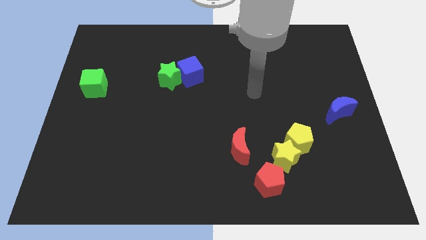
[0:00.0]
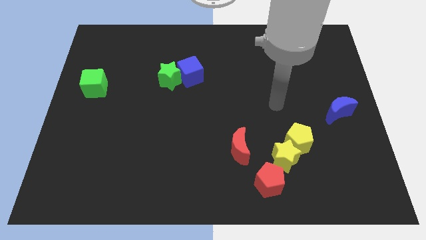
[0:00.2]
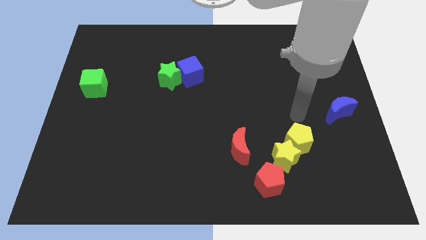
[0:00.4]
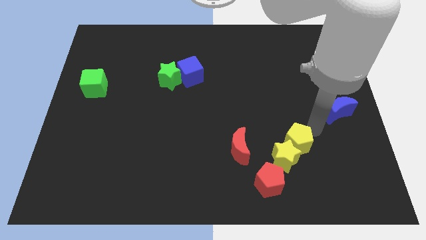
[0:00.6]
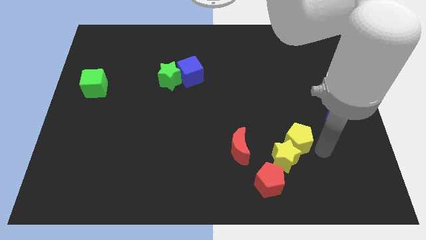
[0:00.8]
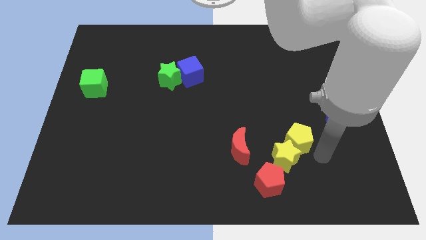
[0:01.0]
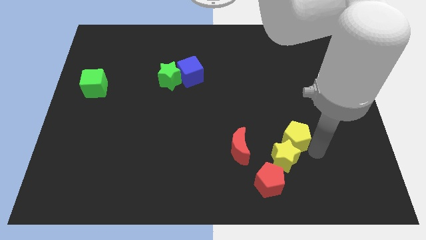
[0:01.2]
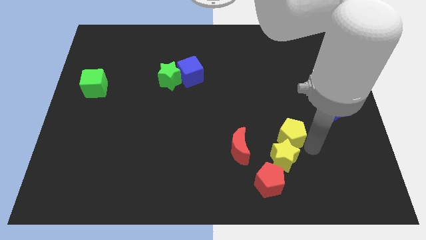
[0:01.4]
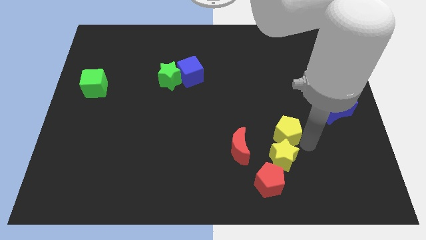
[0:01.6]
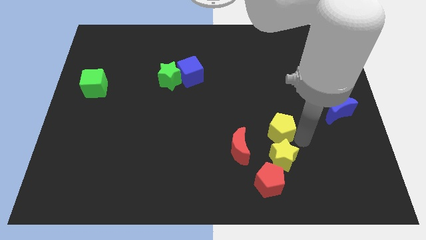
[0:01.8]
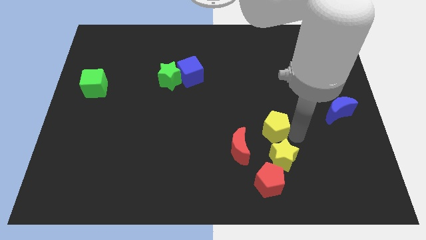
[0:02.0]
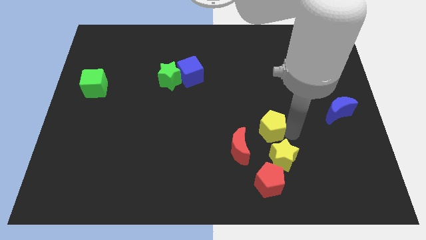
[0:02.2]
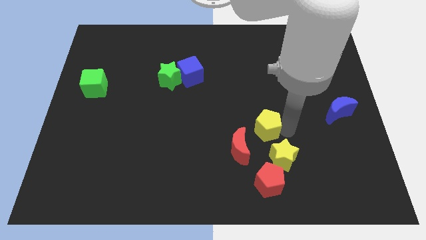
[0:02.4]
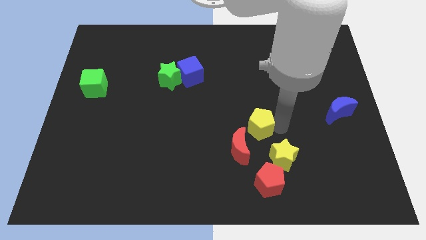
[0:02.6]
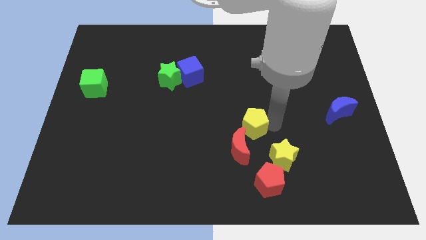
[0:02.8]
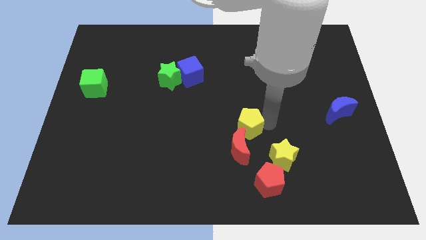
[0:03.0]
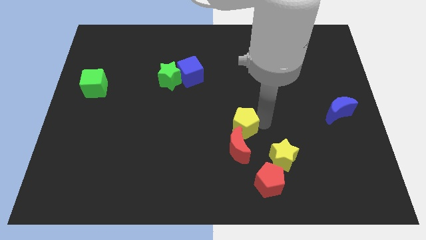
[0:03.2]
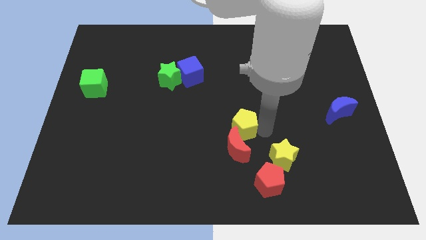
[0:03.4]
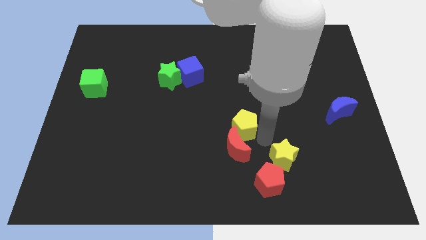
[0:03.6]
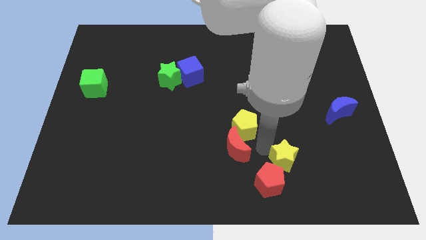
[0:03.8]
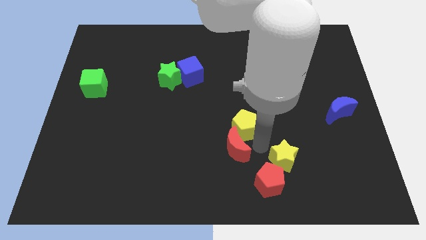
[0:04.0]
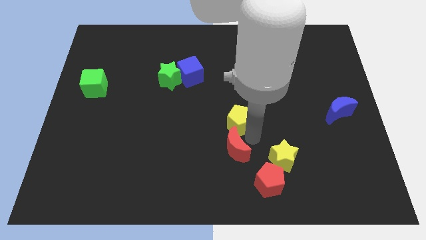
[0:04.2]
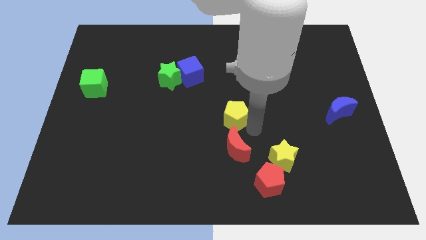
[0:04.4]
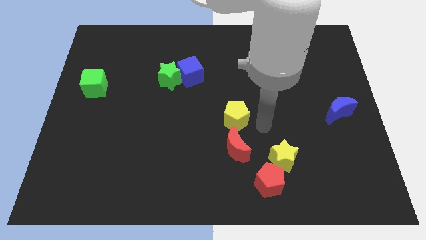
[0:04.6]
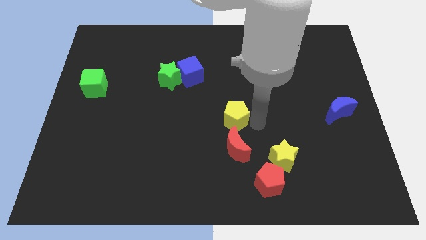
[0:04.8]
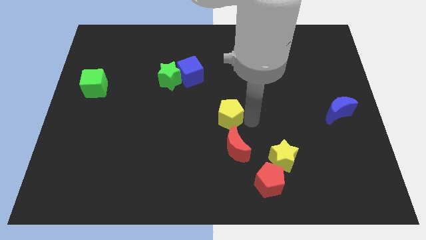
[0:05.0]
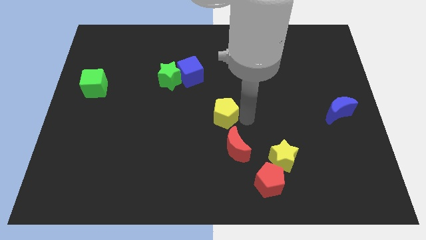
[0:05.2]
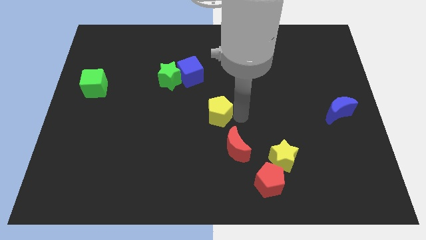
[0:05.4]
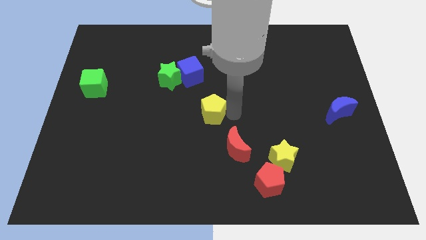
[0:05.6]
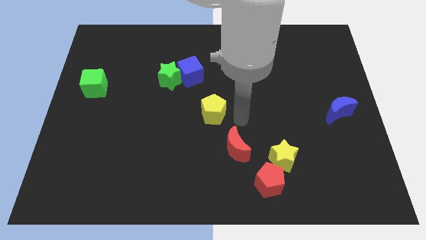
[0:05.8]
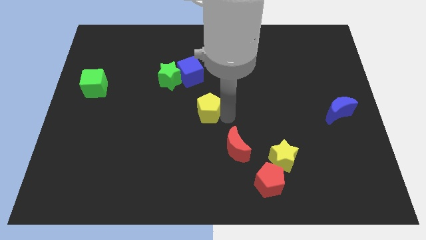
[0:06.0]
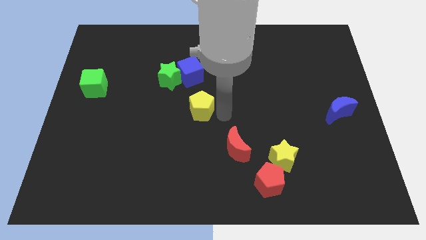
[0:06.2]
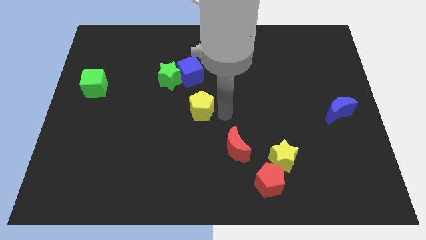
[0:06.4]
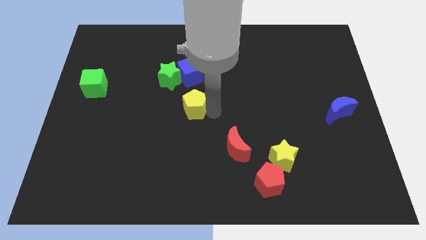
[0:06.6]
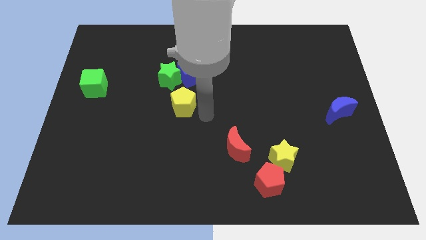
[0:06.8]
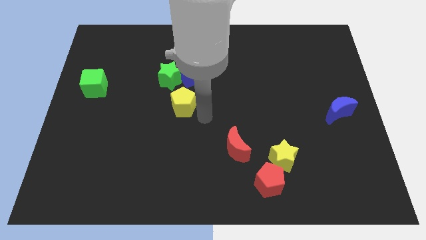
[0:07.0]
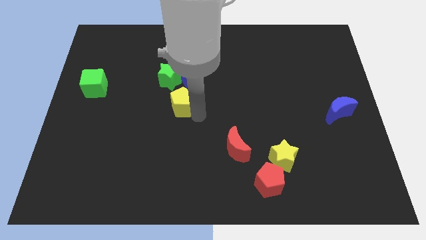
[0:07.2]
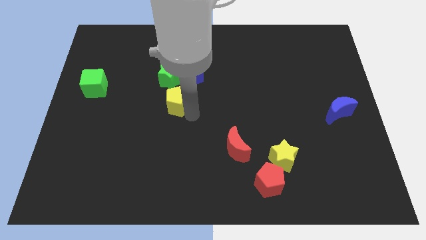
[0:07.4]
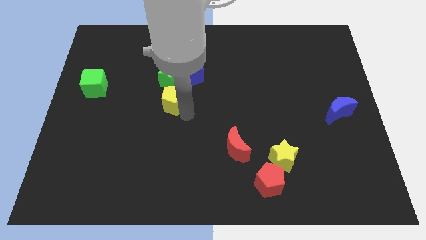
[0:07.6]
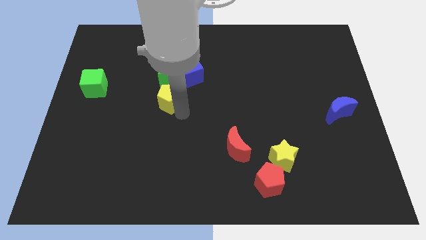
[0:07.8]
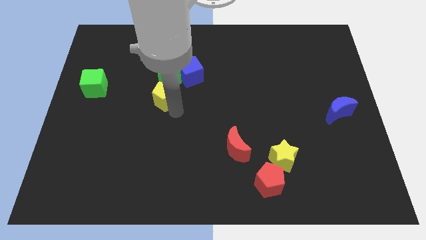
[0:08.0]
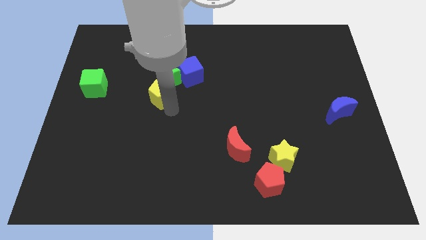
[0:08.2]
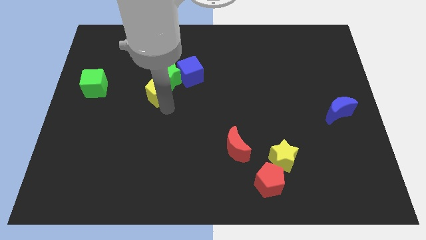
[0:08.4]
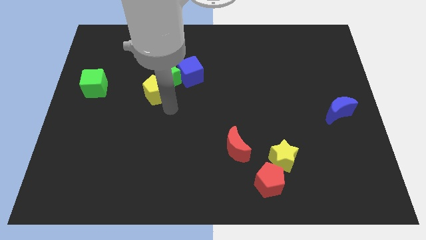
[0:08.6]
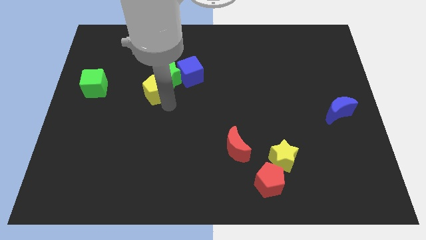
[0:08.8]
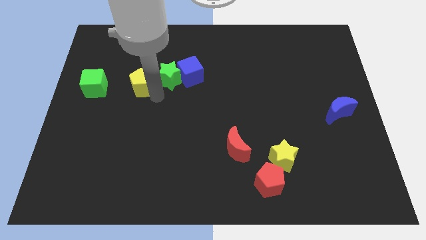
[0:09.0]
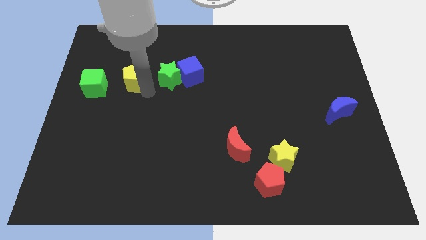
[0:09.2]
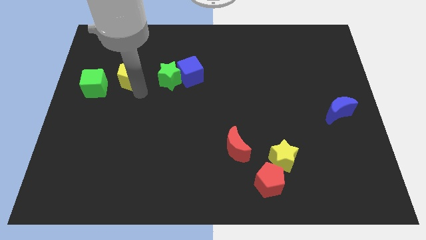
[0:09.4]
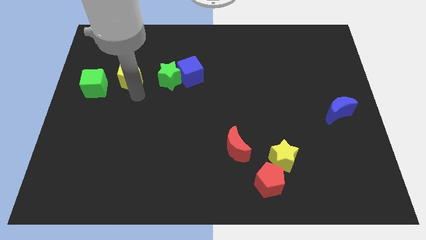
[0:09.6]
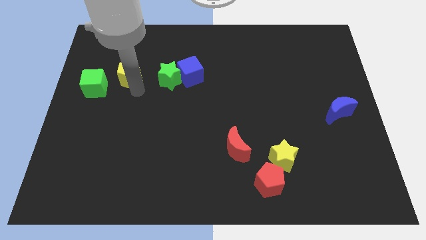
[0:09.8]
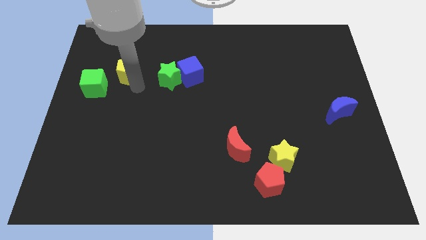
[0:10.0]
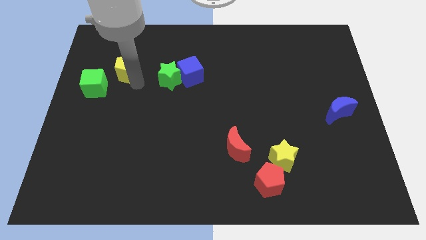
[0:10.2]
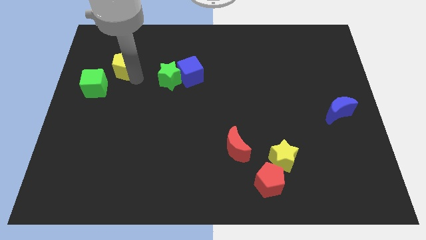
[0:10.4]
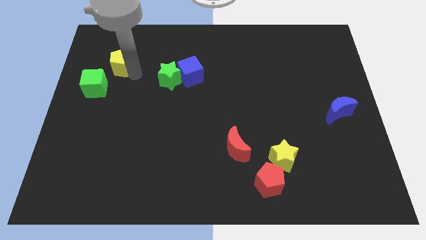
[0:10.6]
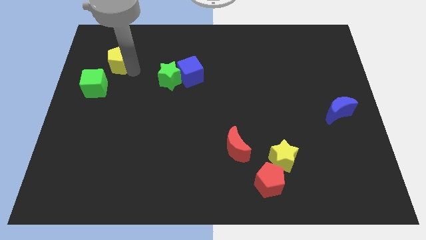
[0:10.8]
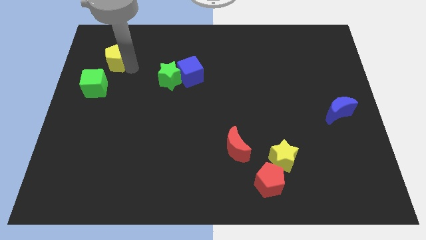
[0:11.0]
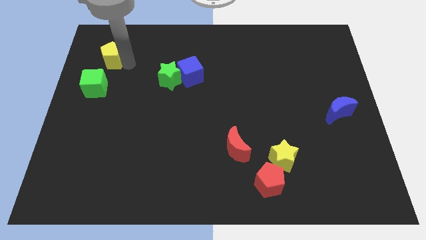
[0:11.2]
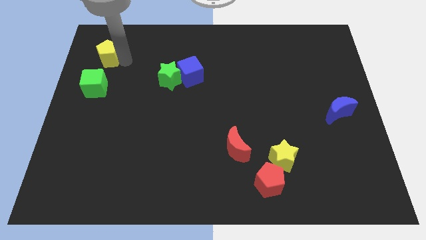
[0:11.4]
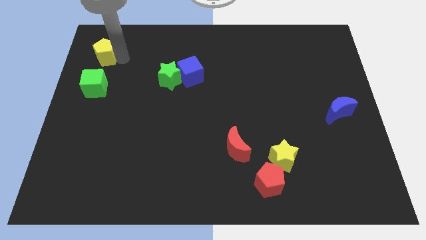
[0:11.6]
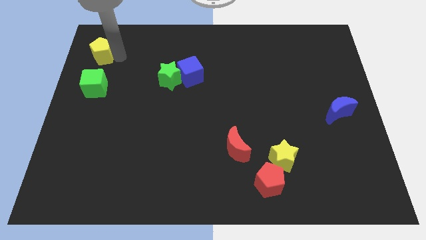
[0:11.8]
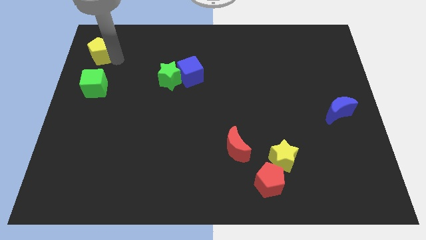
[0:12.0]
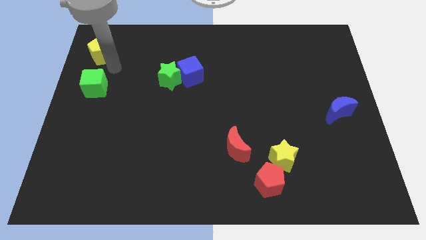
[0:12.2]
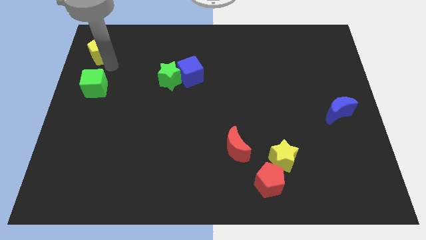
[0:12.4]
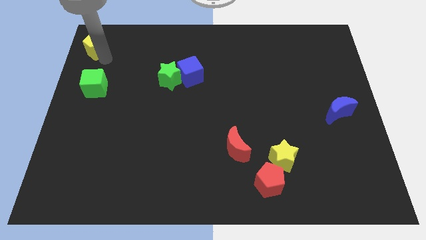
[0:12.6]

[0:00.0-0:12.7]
put the yellow pentagon to the top left of the board

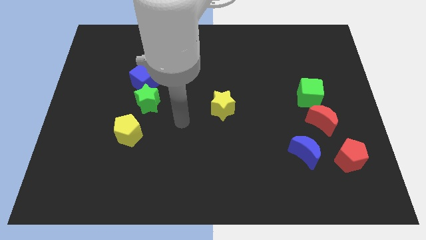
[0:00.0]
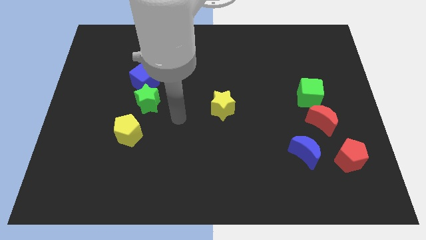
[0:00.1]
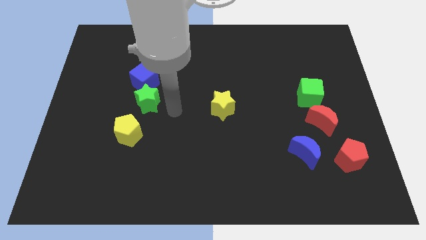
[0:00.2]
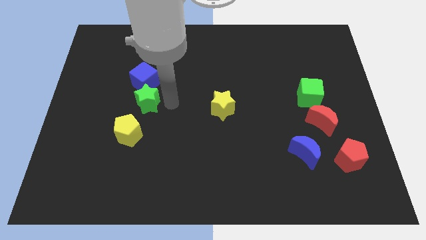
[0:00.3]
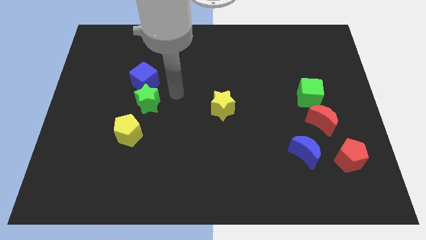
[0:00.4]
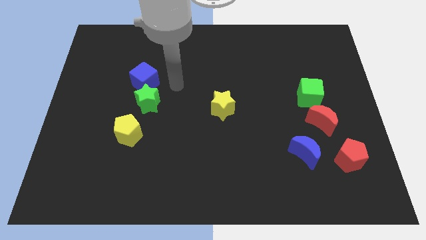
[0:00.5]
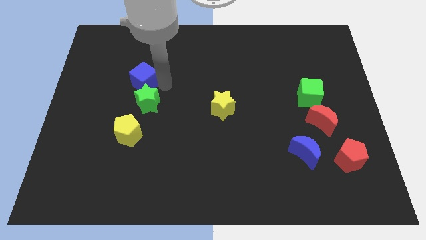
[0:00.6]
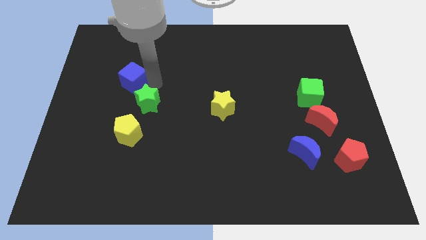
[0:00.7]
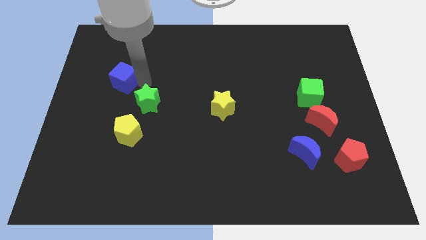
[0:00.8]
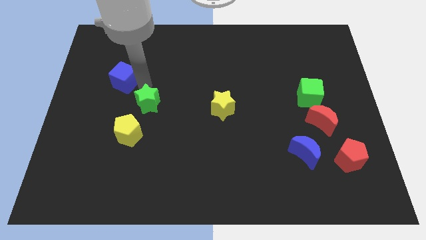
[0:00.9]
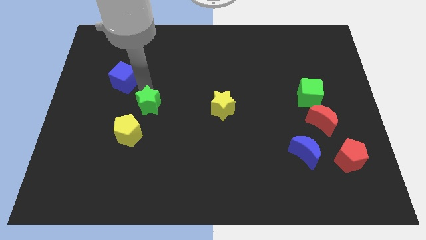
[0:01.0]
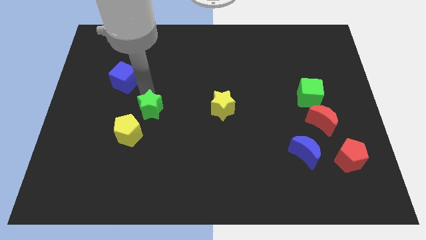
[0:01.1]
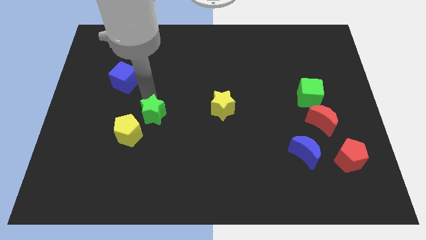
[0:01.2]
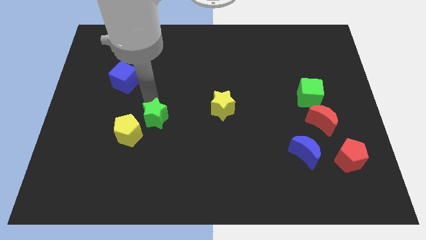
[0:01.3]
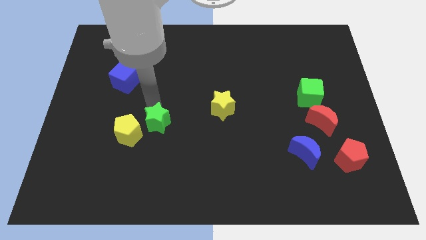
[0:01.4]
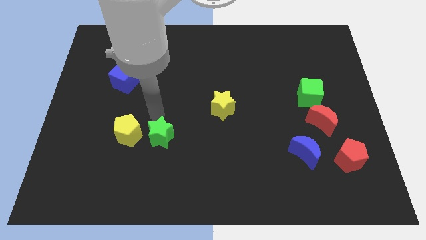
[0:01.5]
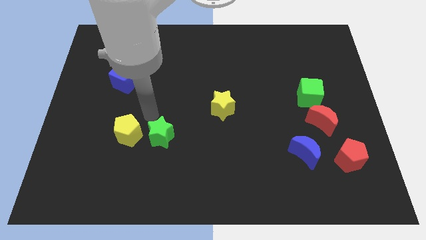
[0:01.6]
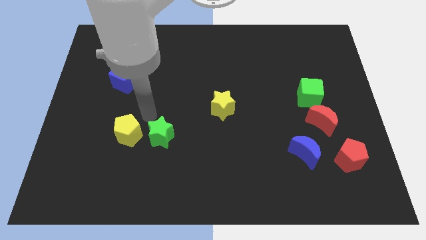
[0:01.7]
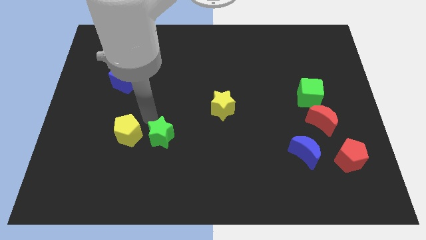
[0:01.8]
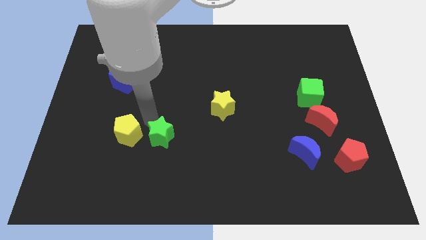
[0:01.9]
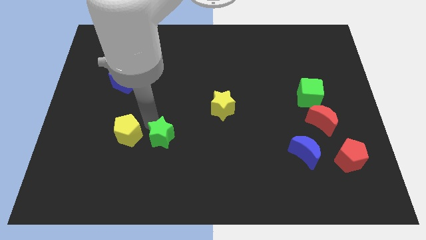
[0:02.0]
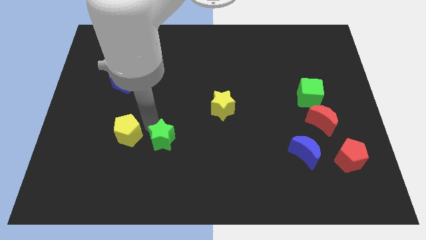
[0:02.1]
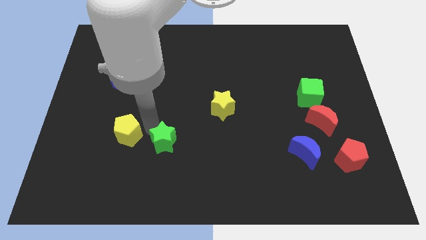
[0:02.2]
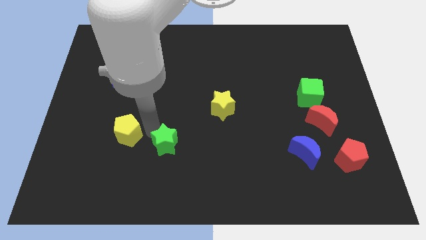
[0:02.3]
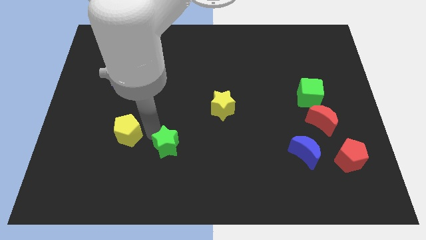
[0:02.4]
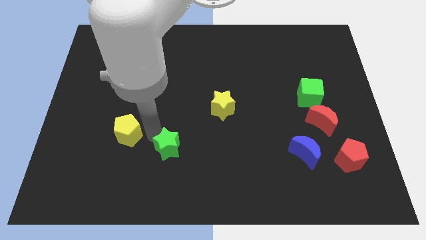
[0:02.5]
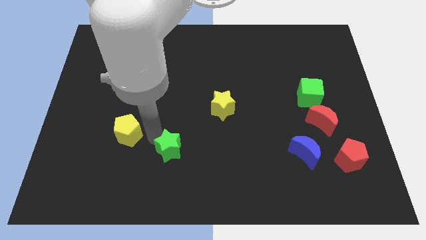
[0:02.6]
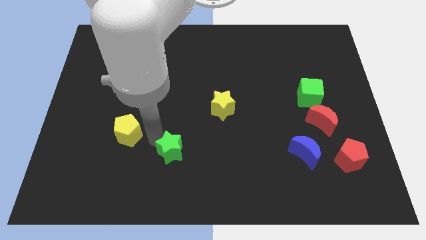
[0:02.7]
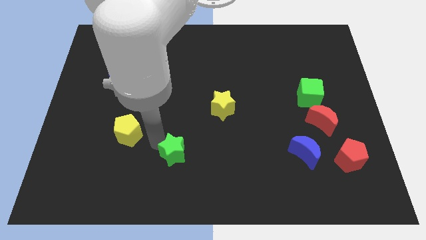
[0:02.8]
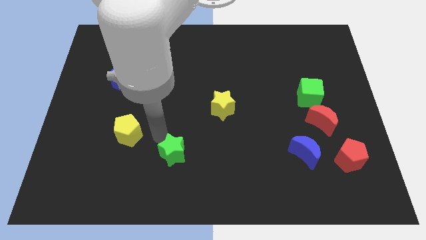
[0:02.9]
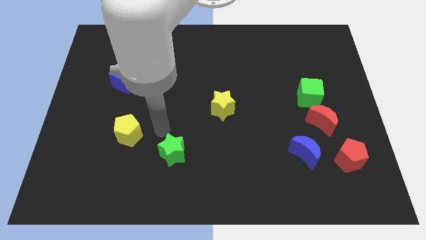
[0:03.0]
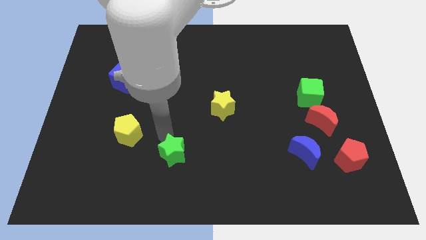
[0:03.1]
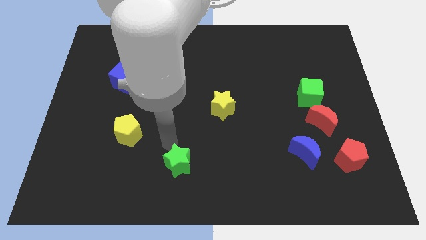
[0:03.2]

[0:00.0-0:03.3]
move the green star to the bottom side
